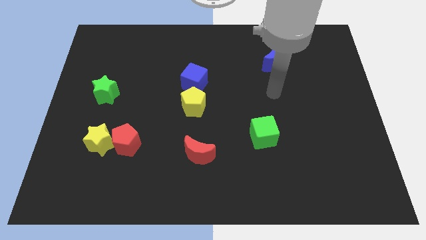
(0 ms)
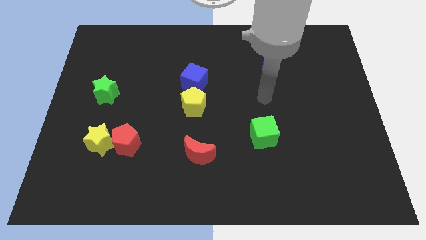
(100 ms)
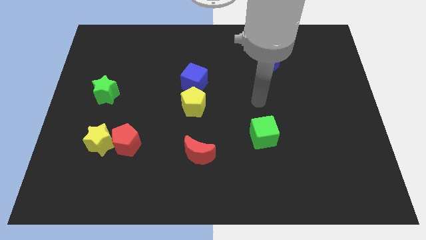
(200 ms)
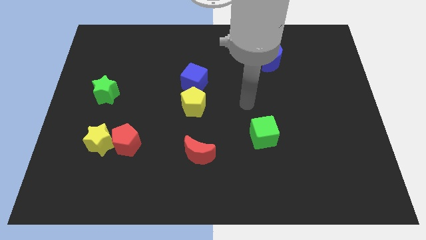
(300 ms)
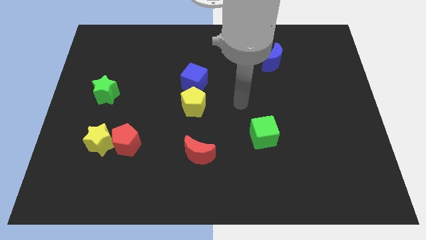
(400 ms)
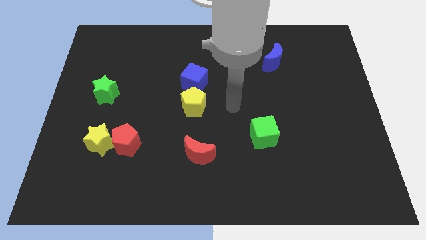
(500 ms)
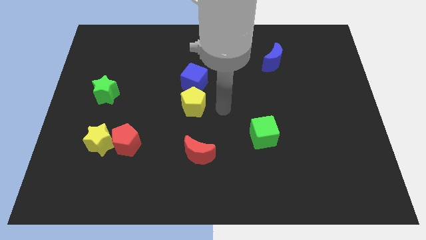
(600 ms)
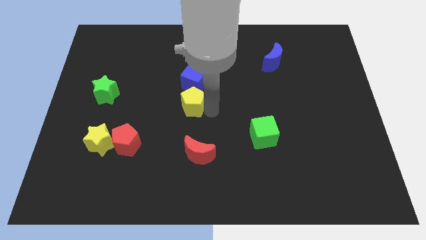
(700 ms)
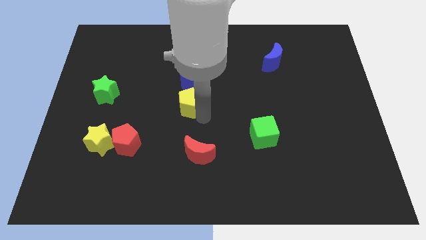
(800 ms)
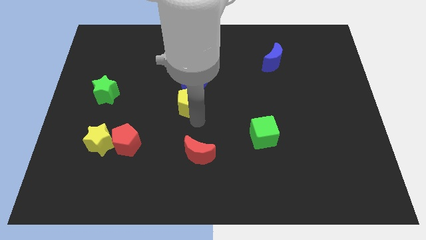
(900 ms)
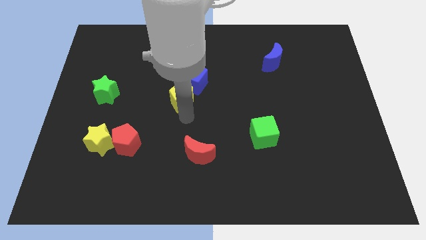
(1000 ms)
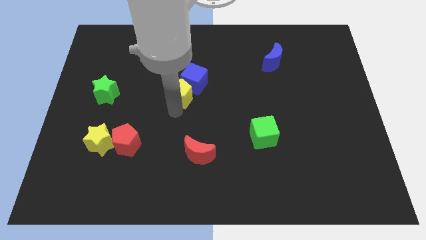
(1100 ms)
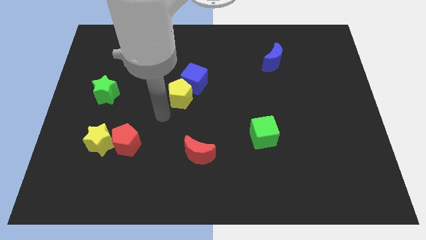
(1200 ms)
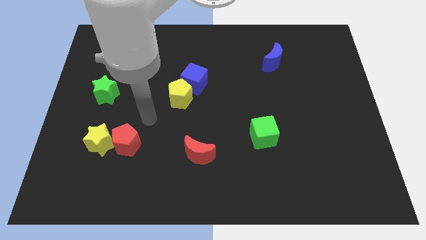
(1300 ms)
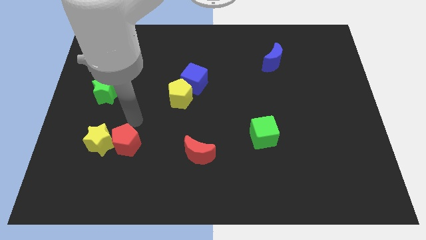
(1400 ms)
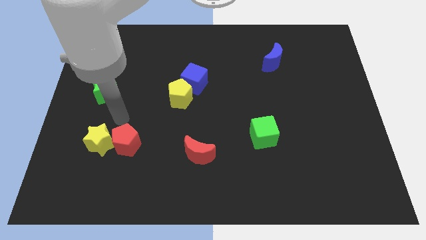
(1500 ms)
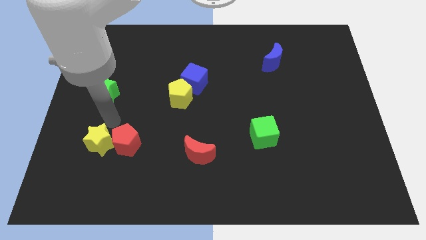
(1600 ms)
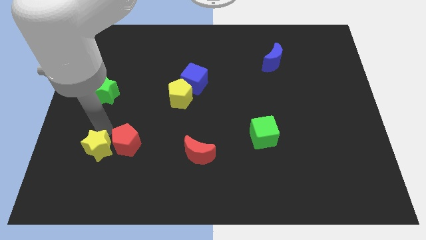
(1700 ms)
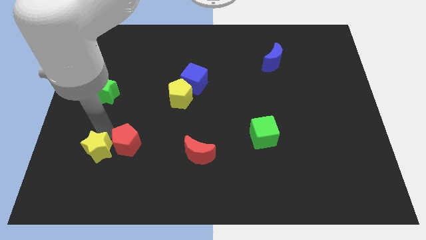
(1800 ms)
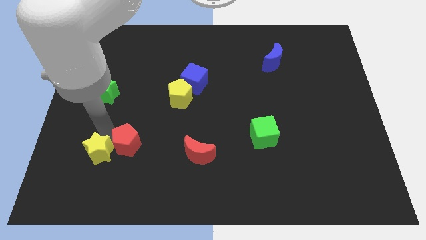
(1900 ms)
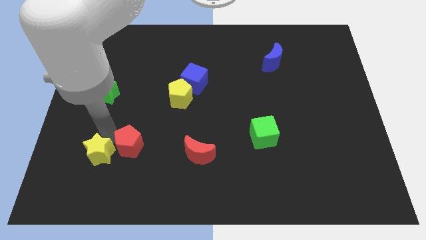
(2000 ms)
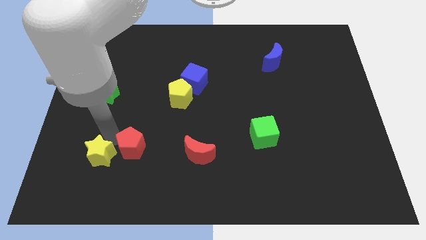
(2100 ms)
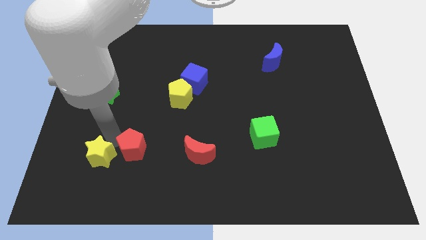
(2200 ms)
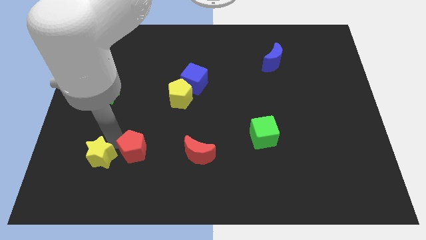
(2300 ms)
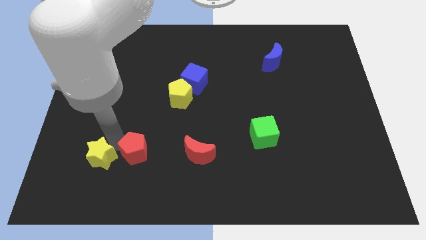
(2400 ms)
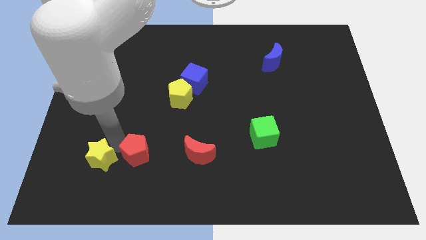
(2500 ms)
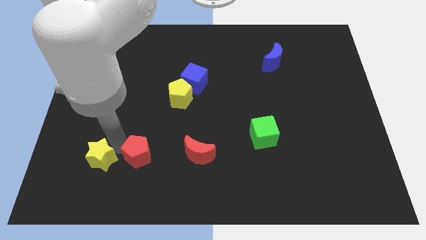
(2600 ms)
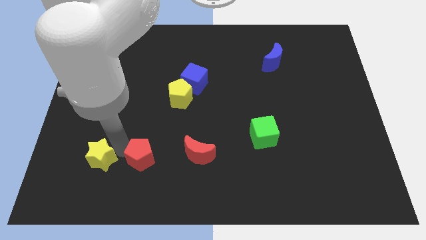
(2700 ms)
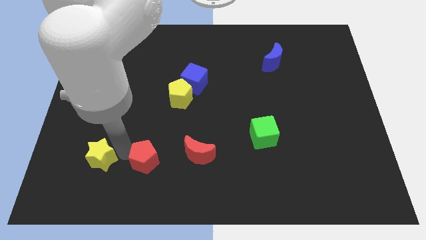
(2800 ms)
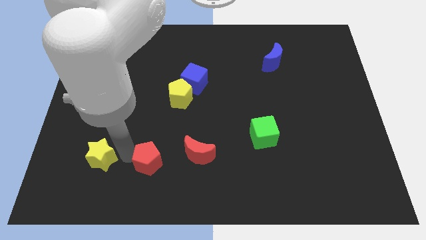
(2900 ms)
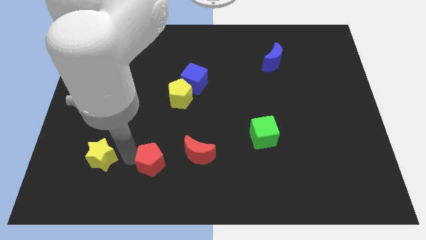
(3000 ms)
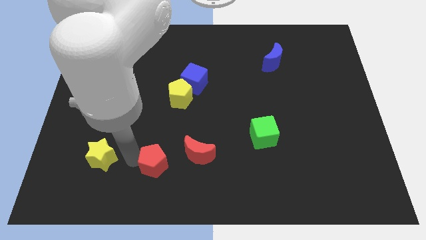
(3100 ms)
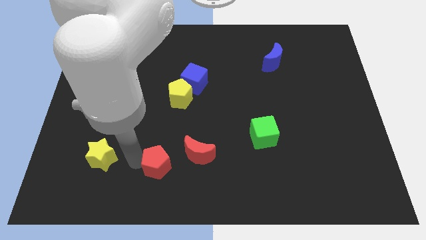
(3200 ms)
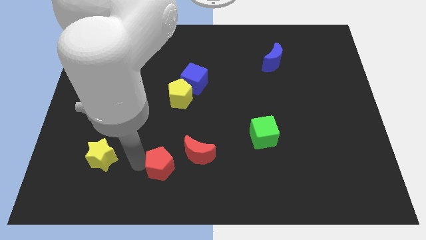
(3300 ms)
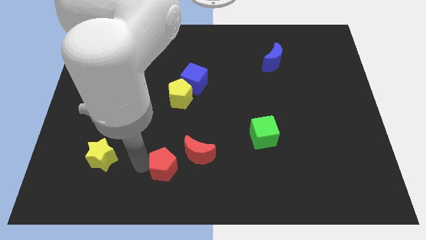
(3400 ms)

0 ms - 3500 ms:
move the red pentagon a bit to the right

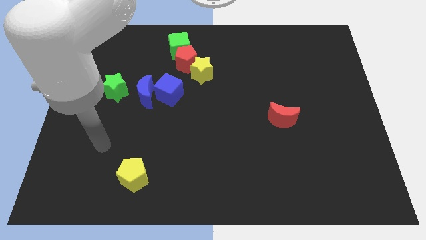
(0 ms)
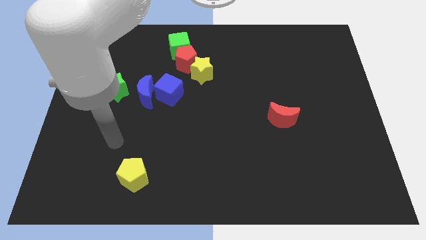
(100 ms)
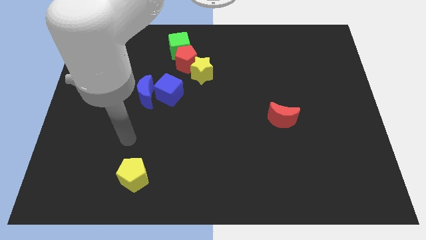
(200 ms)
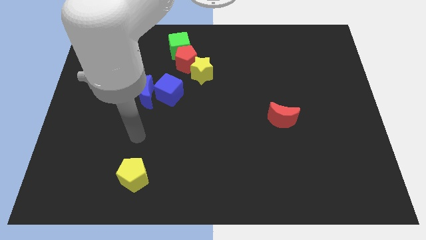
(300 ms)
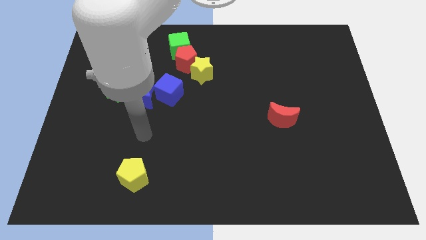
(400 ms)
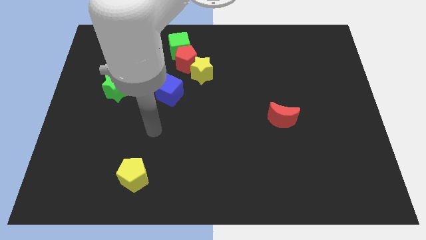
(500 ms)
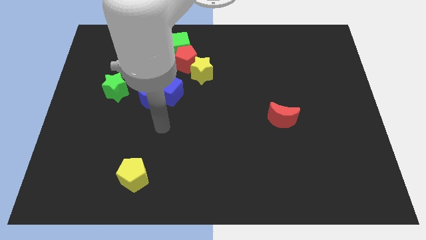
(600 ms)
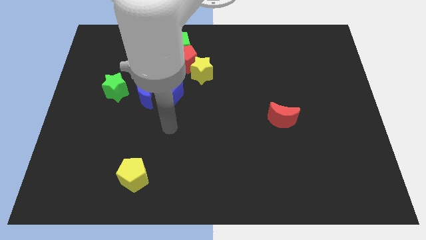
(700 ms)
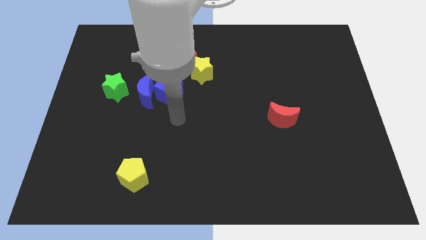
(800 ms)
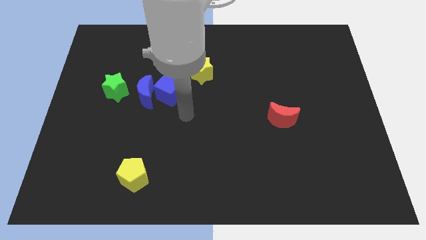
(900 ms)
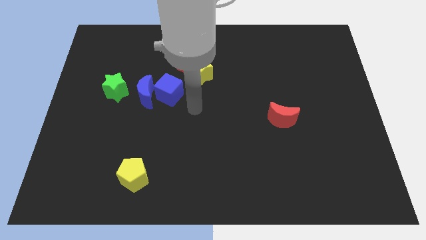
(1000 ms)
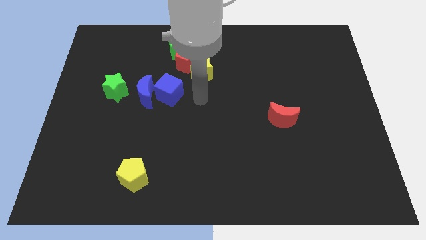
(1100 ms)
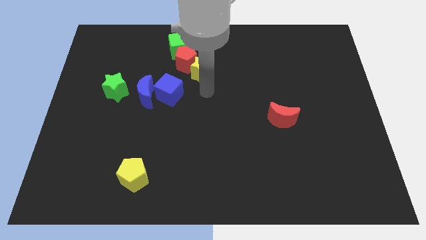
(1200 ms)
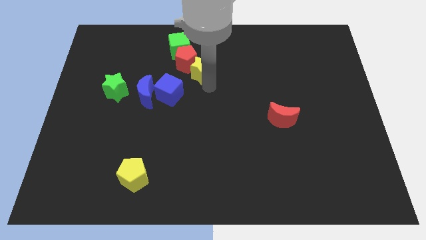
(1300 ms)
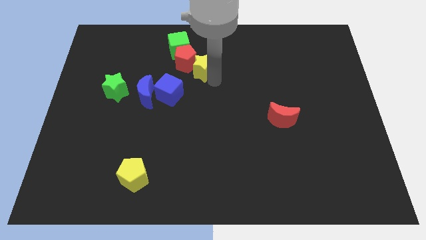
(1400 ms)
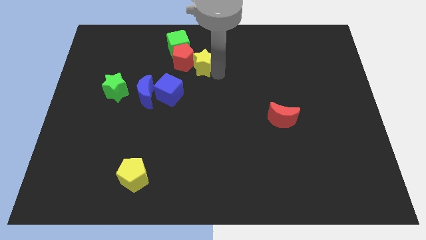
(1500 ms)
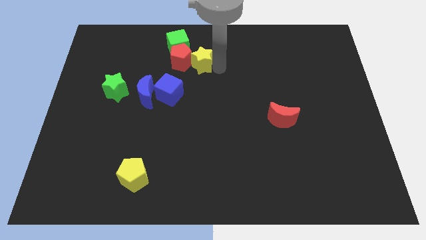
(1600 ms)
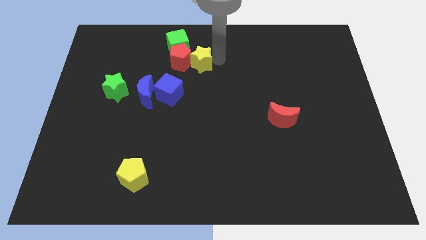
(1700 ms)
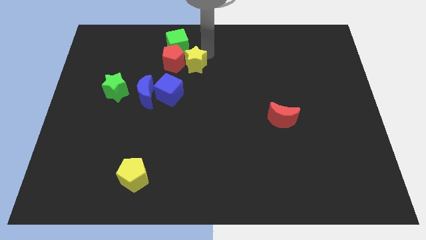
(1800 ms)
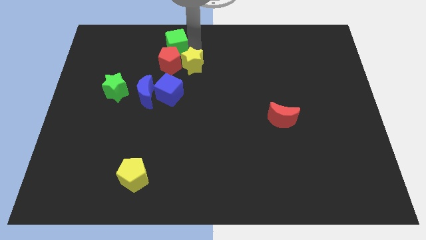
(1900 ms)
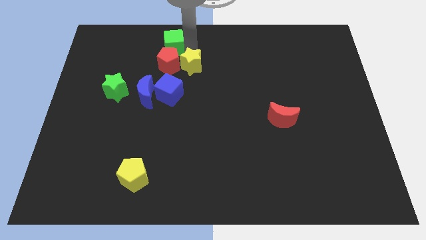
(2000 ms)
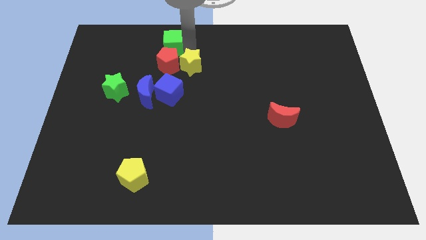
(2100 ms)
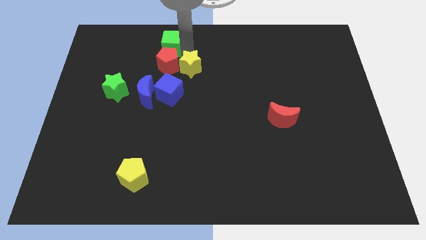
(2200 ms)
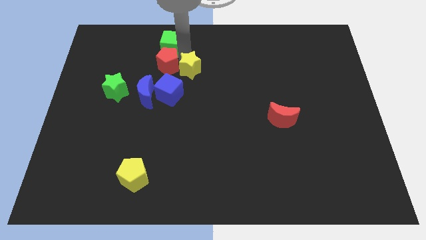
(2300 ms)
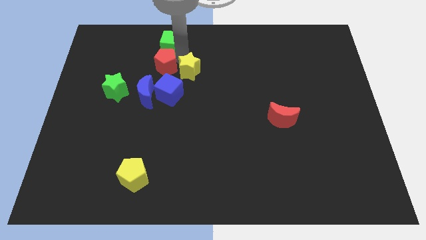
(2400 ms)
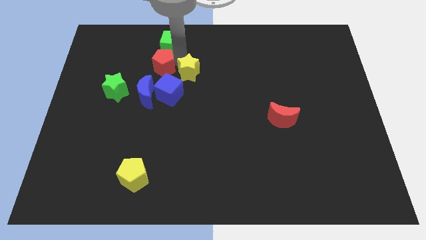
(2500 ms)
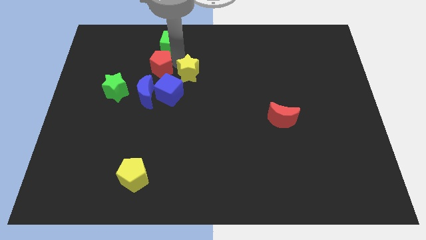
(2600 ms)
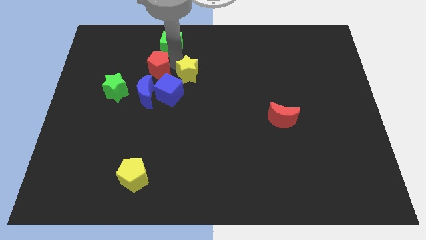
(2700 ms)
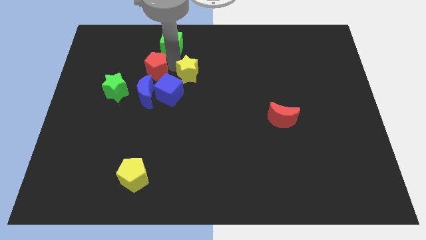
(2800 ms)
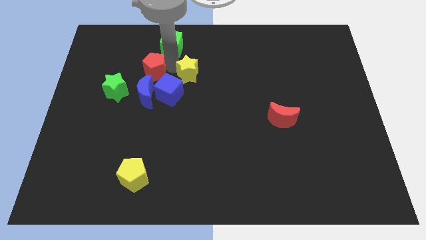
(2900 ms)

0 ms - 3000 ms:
slide the red pentagon diagonally down and to the left a bit

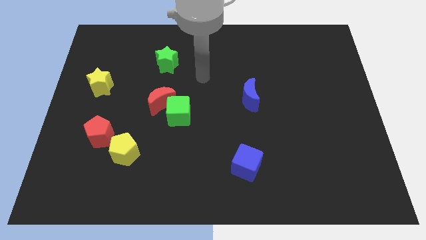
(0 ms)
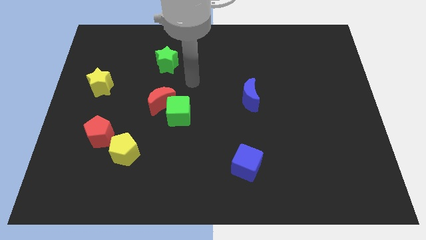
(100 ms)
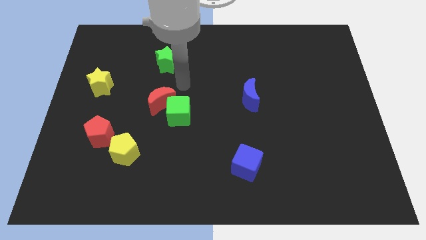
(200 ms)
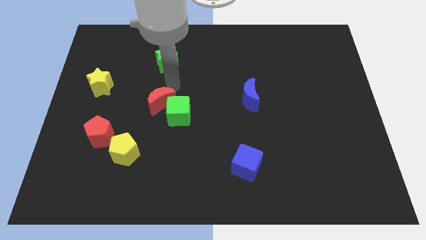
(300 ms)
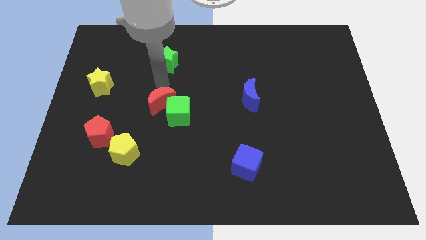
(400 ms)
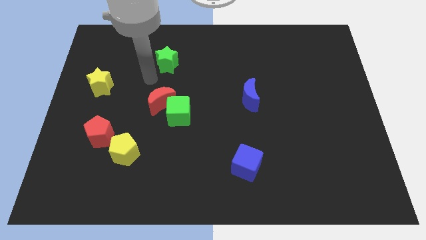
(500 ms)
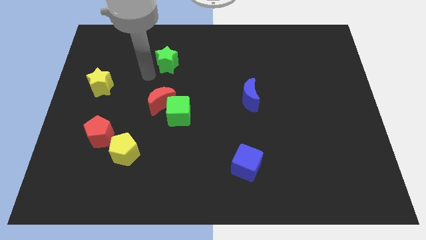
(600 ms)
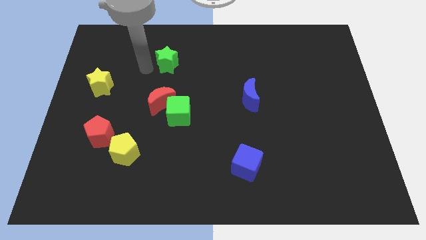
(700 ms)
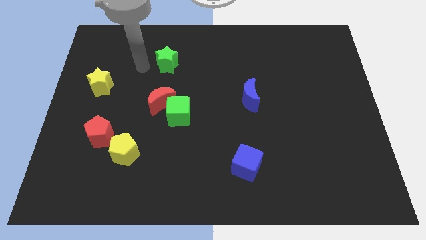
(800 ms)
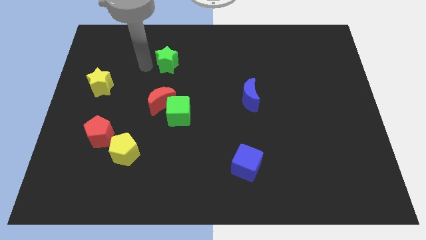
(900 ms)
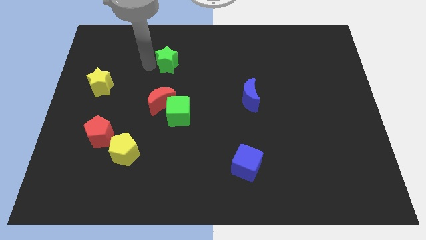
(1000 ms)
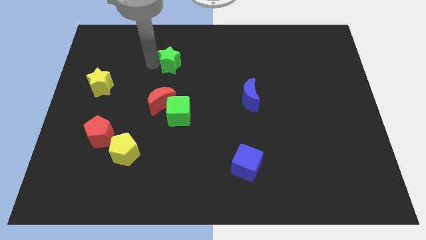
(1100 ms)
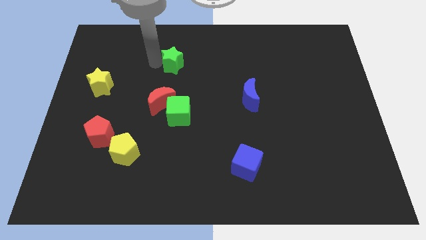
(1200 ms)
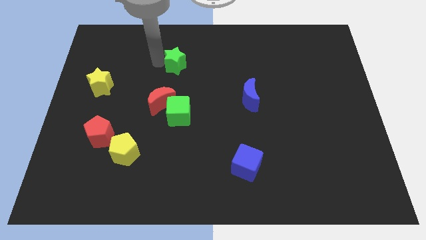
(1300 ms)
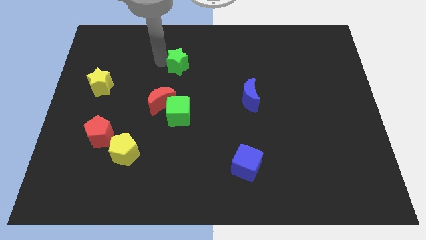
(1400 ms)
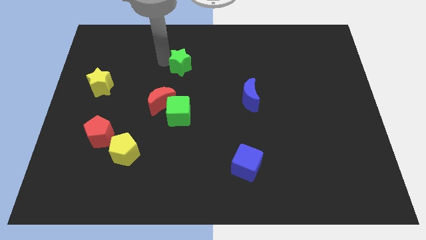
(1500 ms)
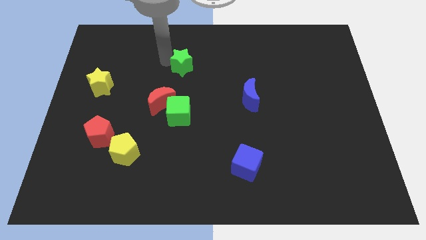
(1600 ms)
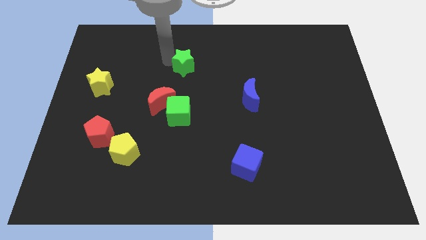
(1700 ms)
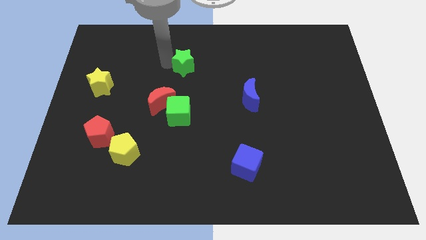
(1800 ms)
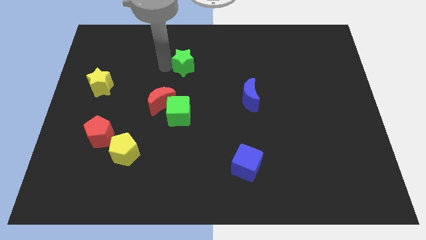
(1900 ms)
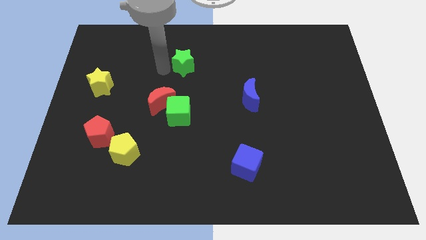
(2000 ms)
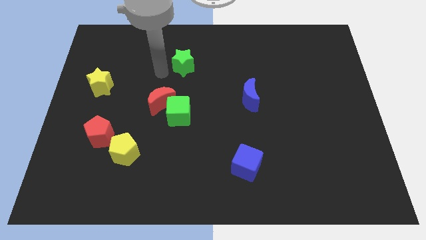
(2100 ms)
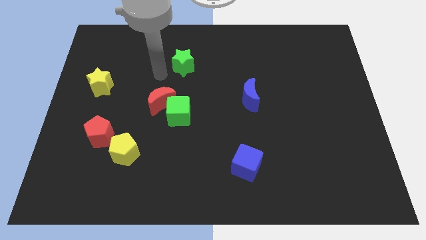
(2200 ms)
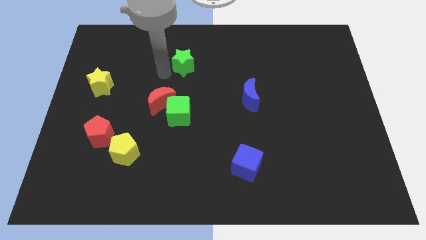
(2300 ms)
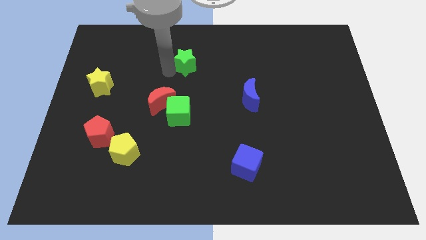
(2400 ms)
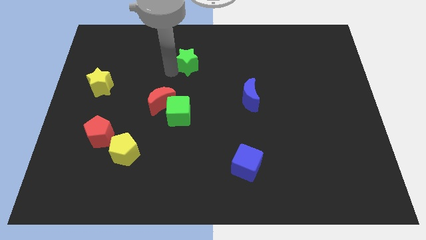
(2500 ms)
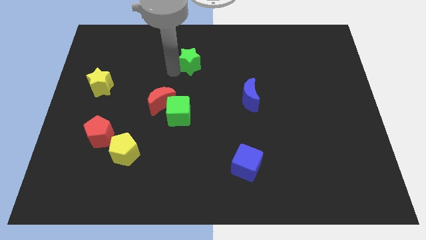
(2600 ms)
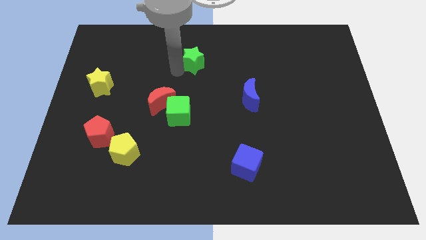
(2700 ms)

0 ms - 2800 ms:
slightly push the green star to the right
